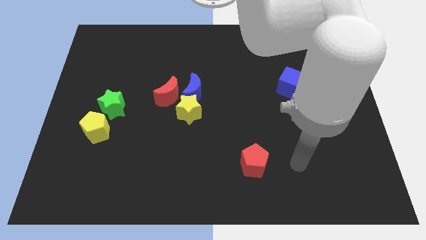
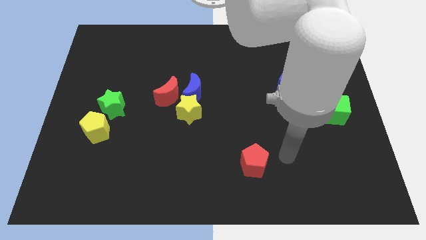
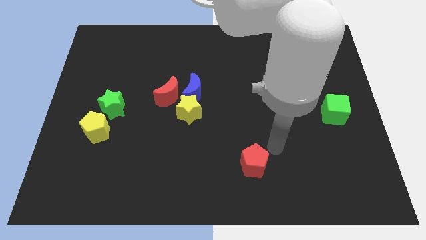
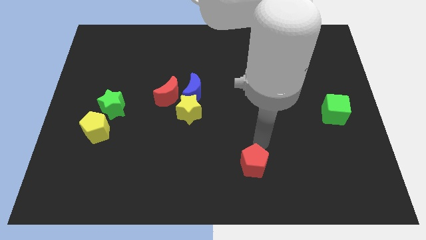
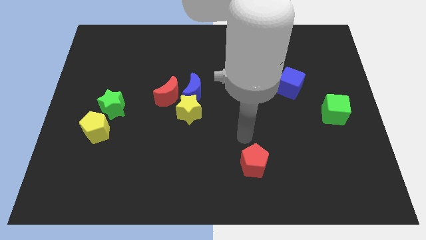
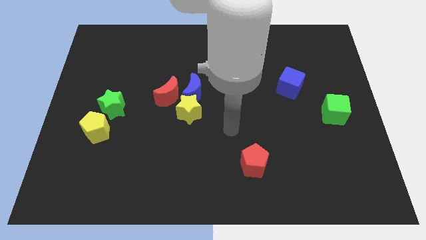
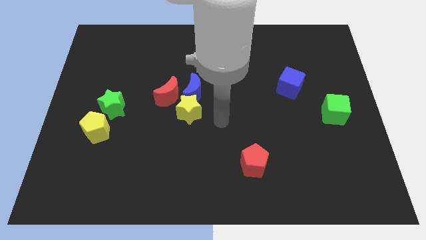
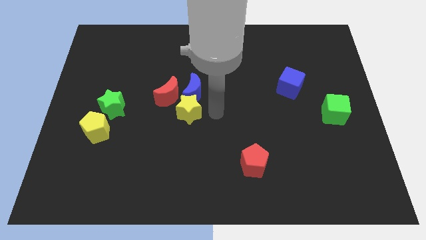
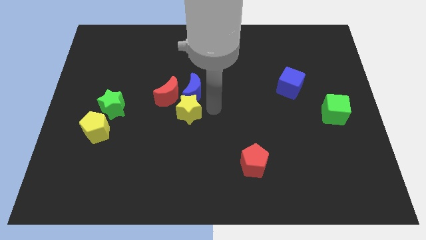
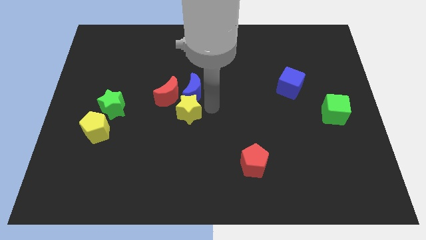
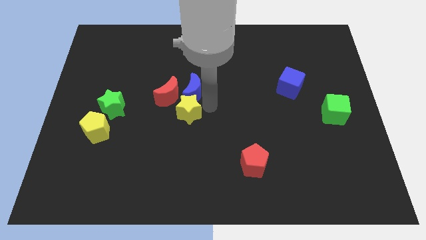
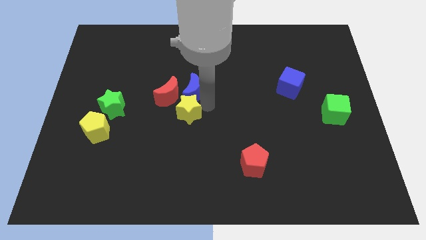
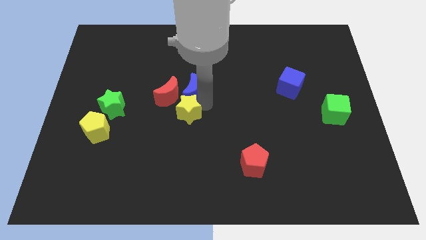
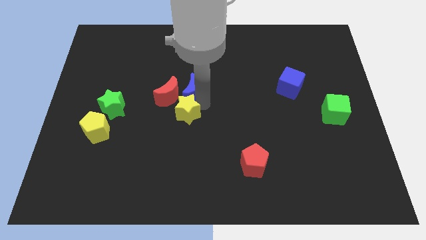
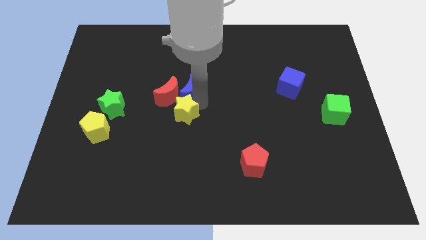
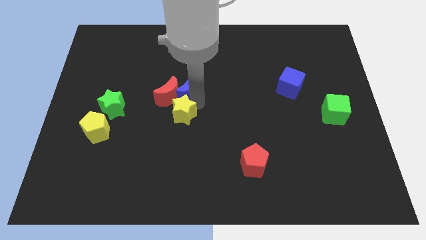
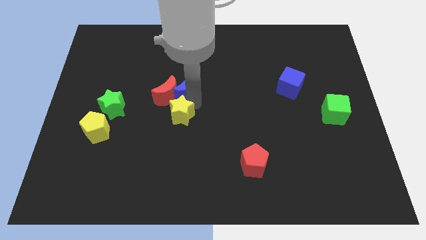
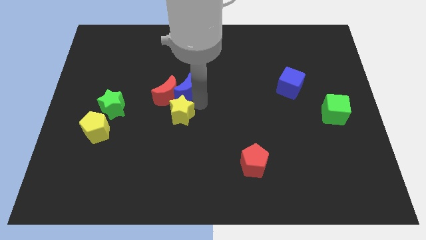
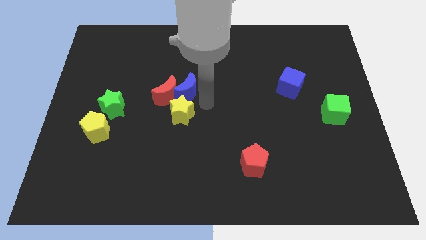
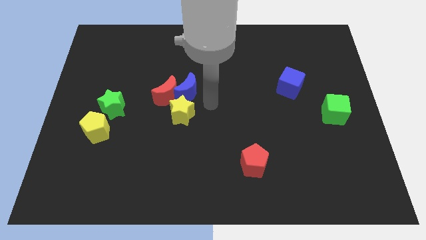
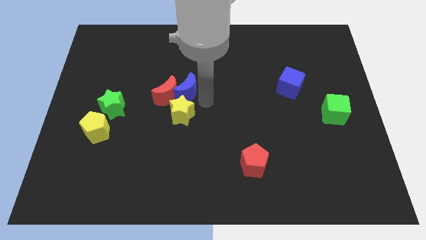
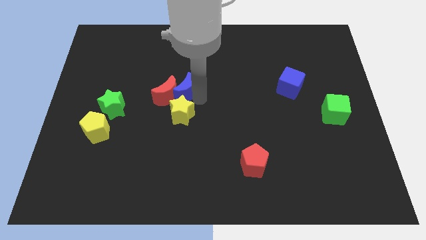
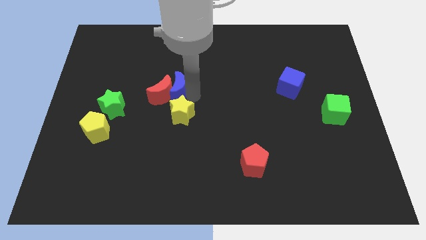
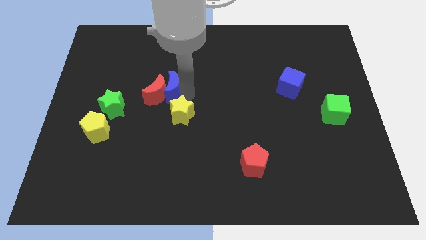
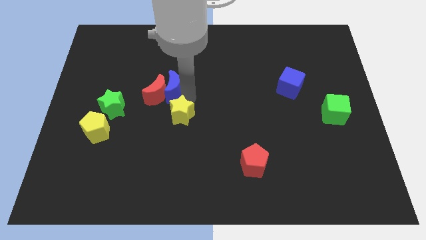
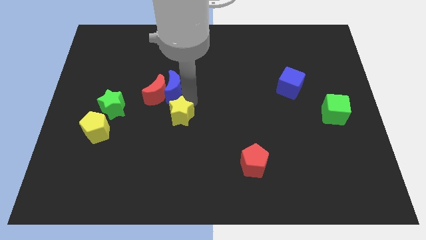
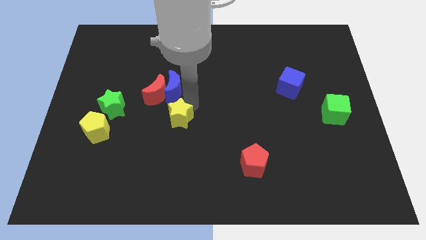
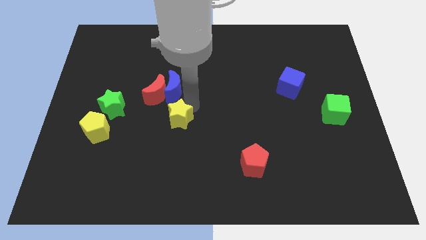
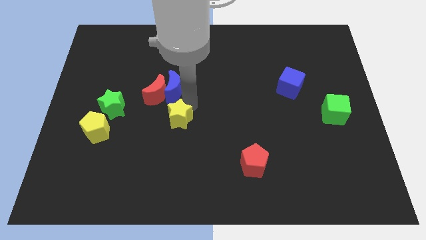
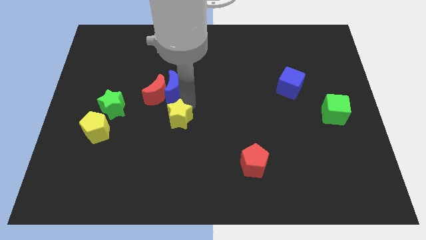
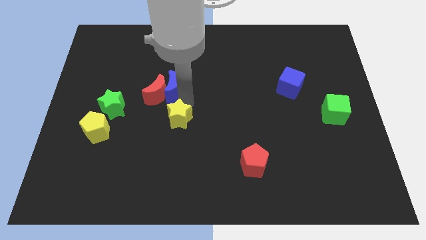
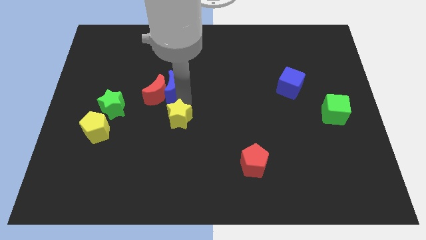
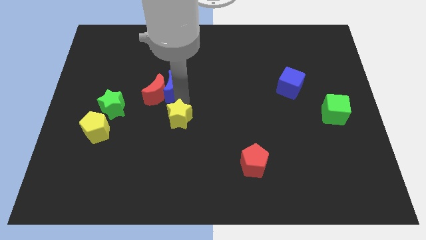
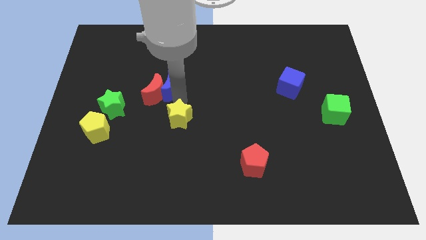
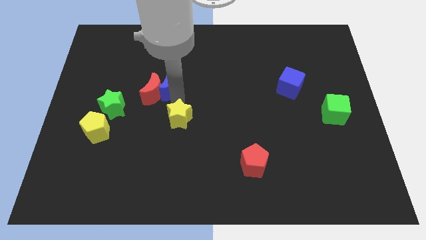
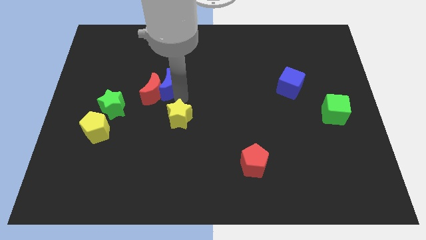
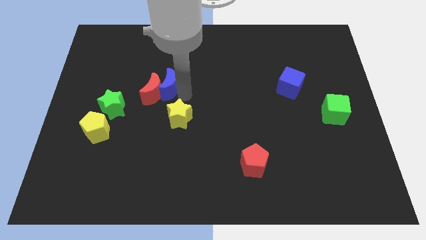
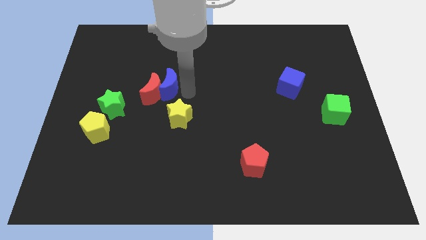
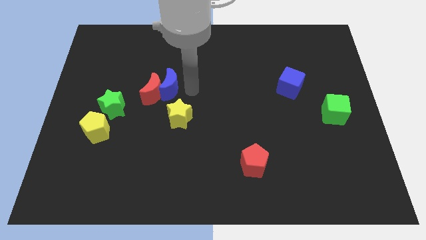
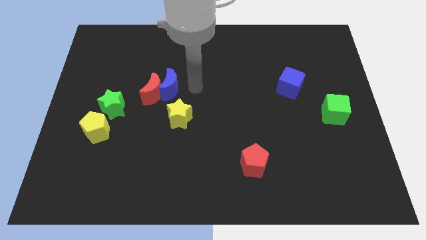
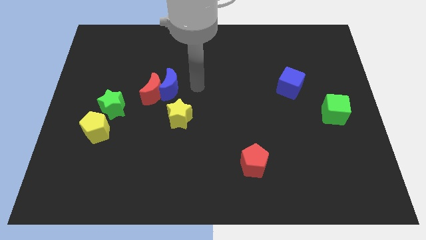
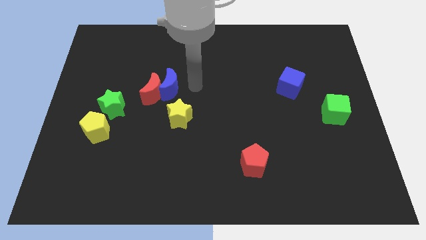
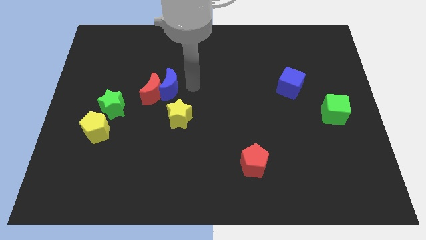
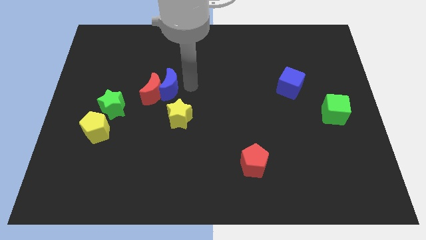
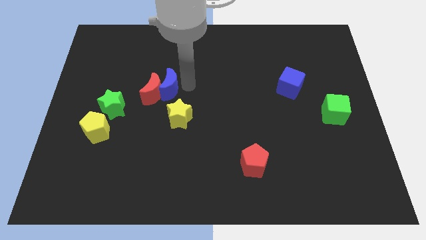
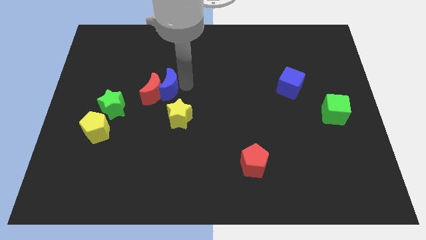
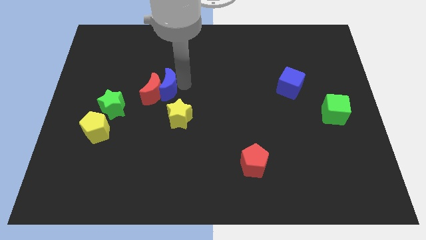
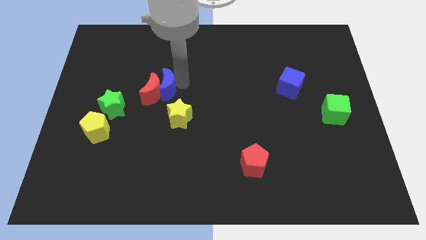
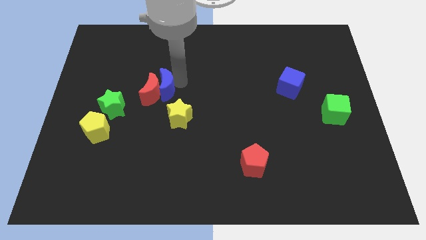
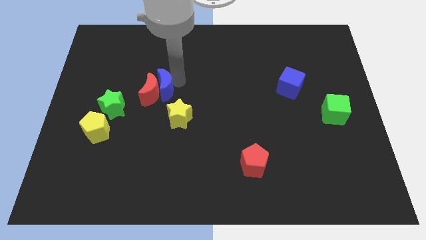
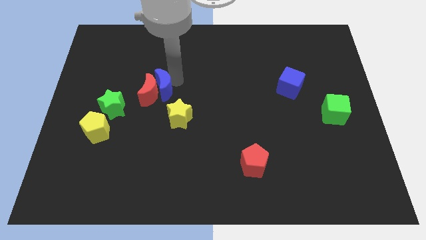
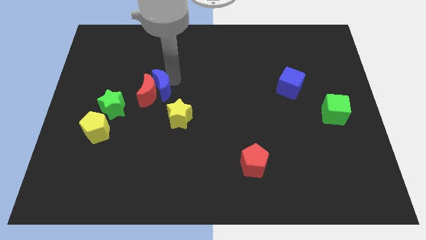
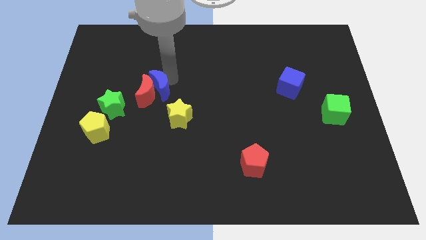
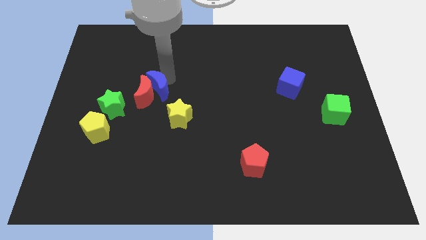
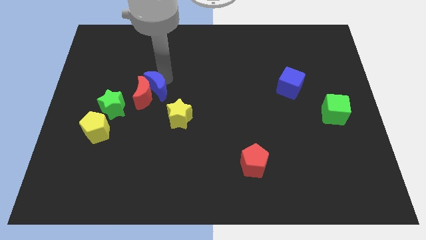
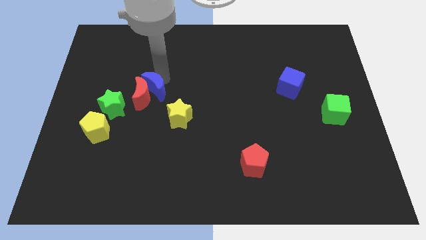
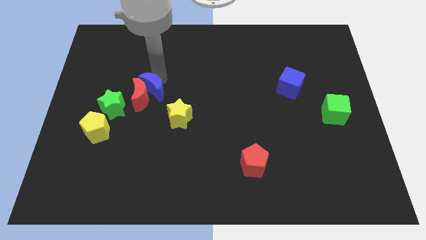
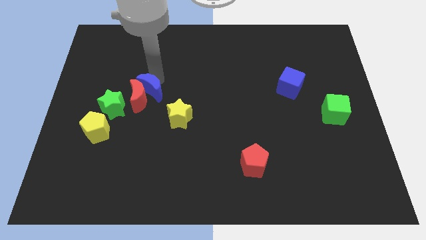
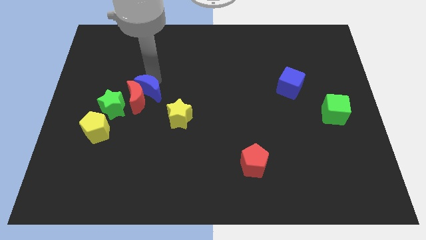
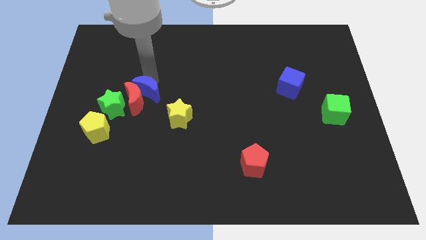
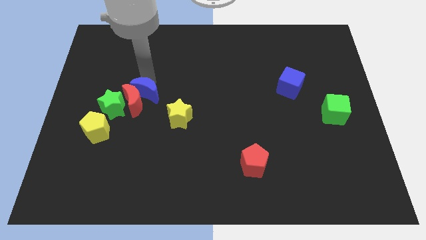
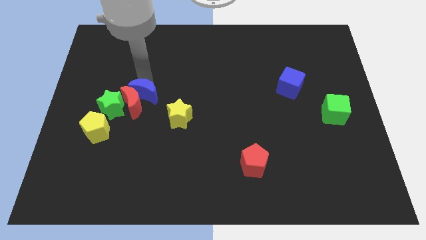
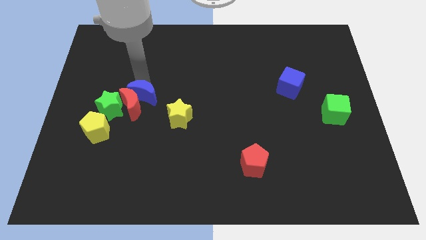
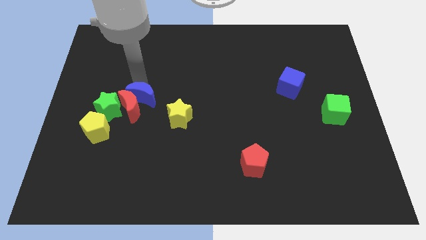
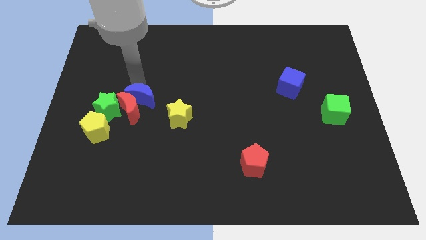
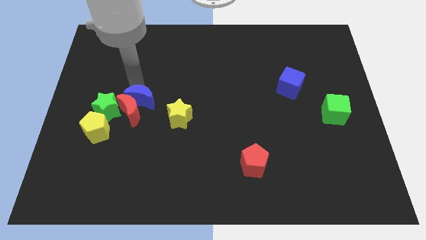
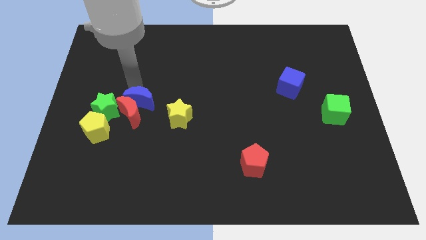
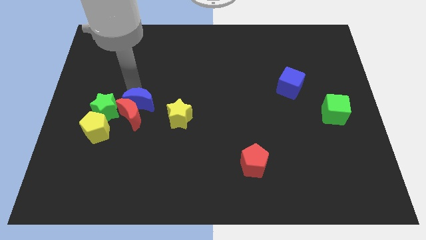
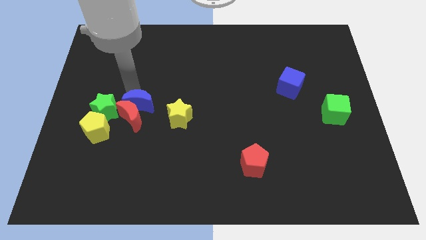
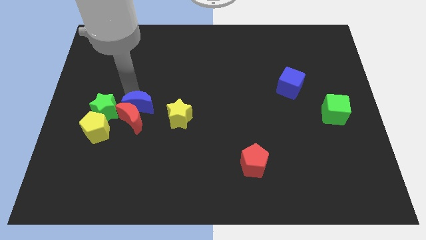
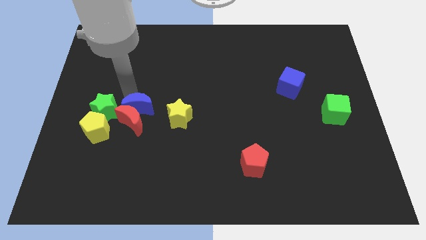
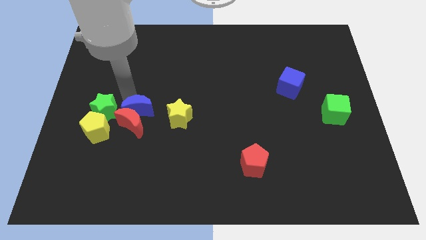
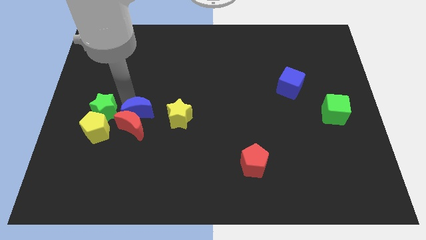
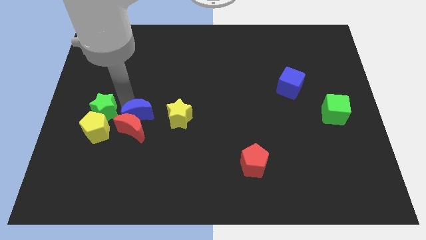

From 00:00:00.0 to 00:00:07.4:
move the blue moon to the right side of the yellow pentagon

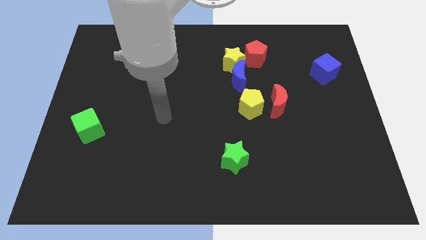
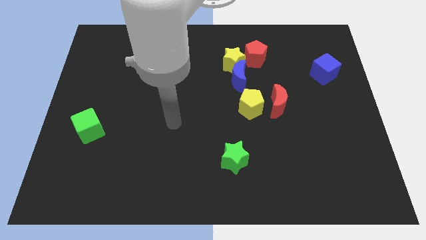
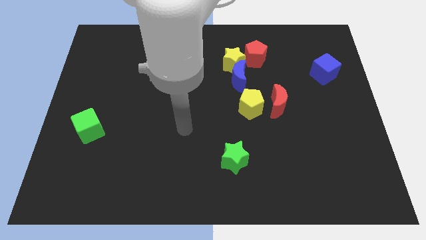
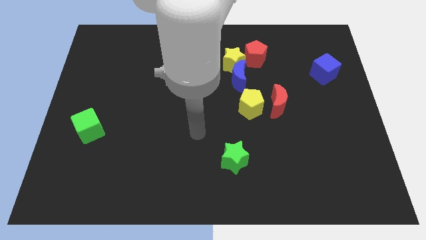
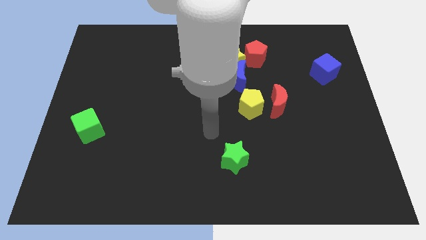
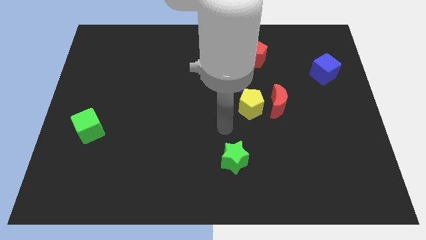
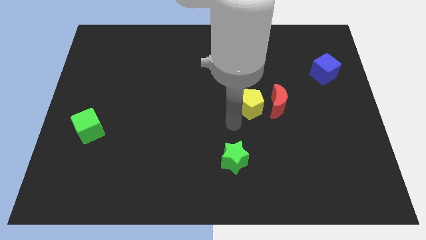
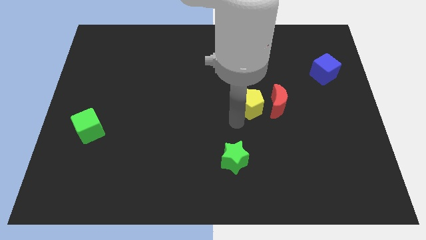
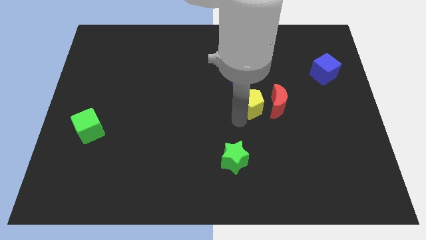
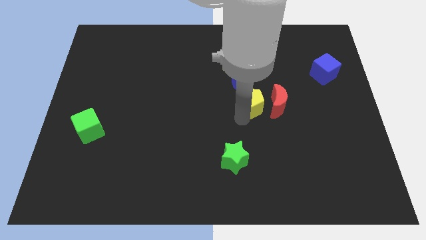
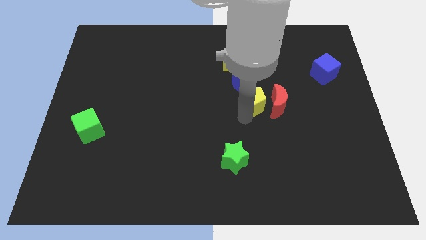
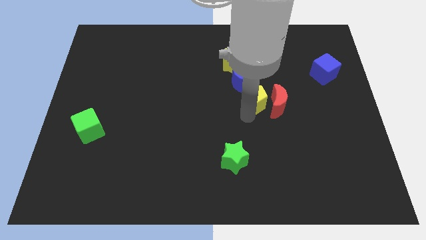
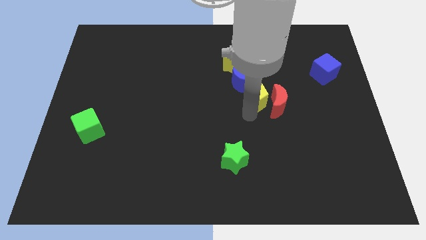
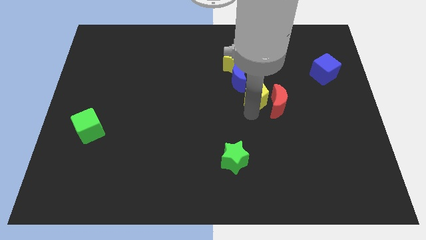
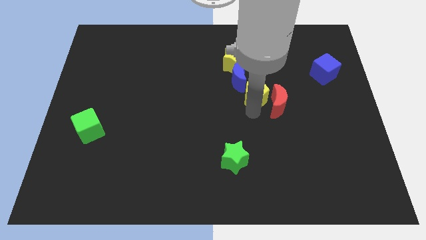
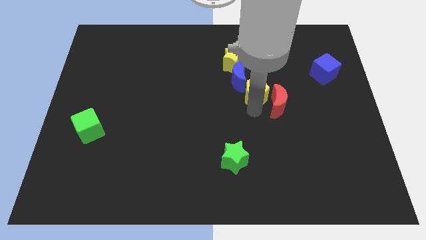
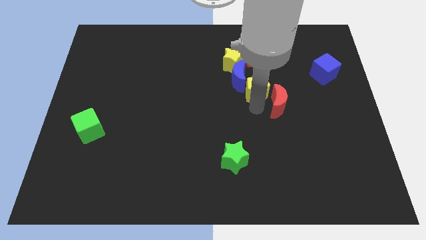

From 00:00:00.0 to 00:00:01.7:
push the yellow pentagon to the right of the blue moon
